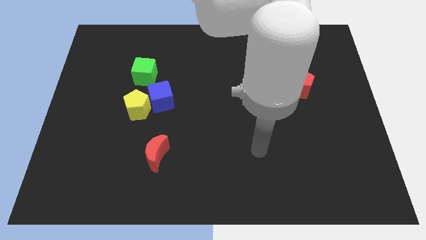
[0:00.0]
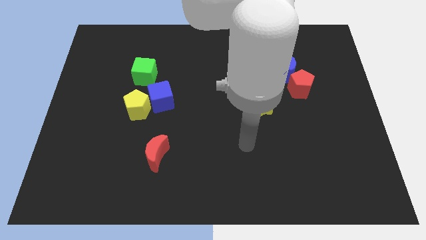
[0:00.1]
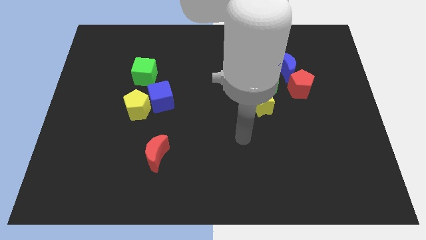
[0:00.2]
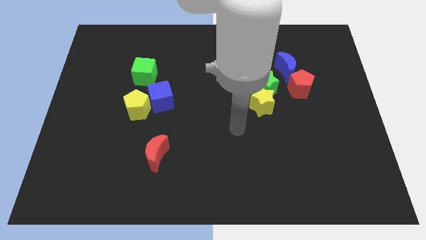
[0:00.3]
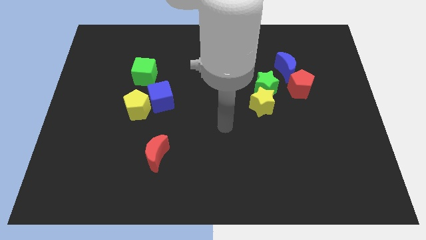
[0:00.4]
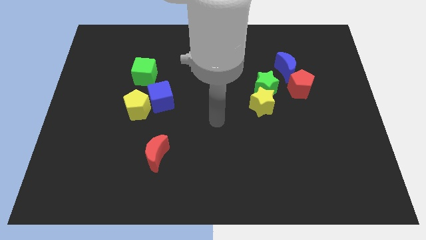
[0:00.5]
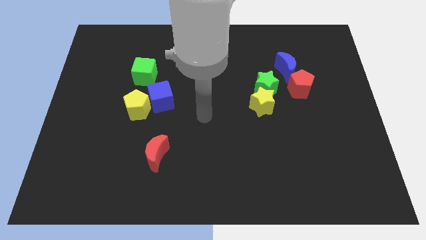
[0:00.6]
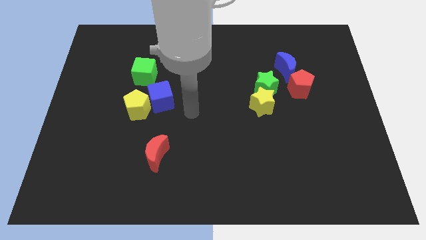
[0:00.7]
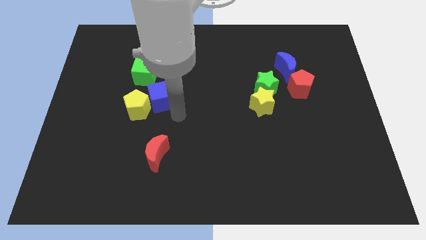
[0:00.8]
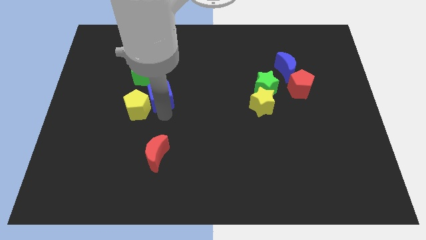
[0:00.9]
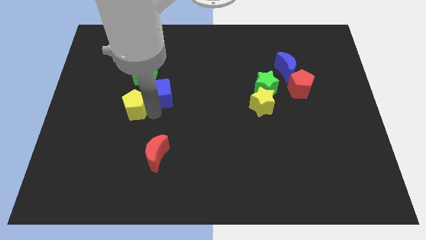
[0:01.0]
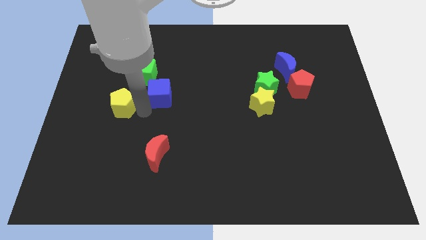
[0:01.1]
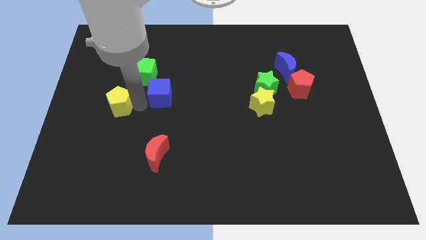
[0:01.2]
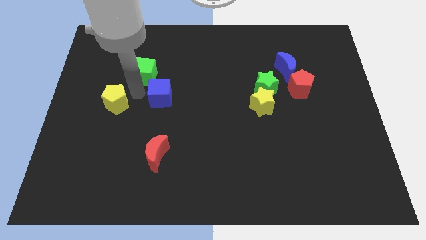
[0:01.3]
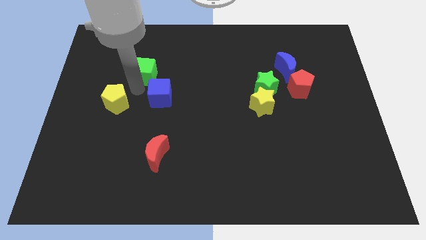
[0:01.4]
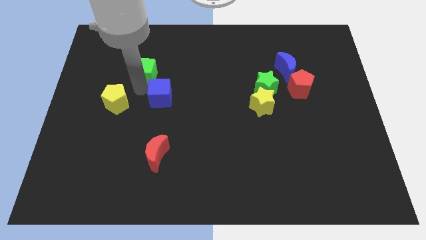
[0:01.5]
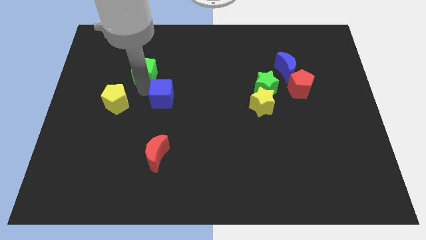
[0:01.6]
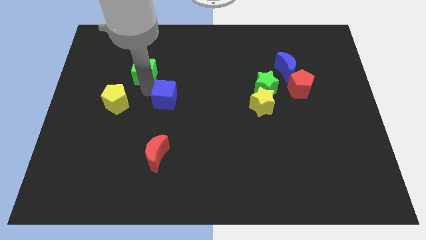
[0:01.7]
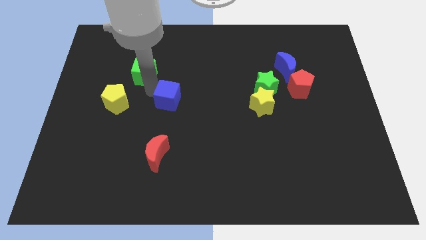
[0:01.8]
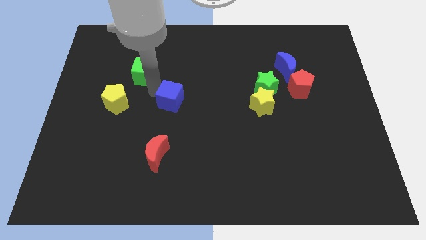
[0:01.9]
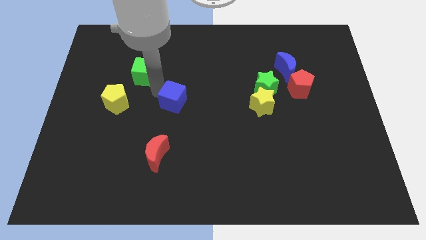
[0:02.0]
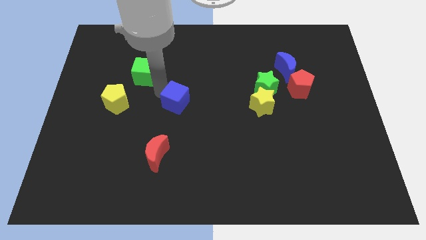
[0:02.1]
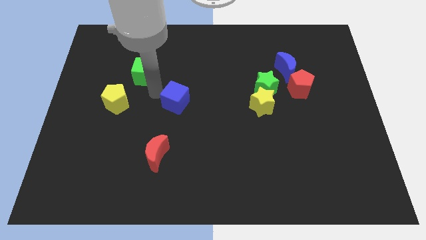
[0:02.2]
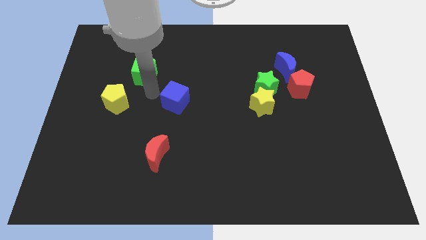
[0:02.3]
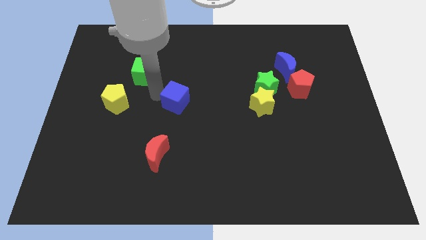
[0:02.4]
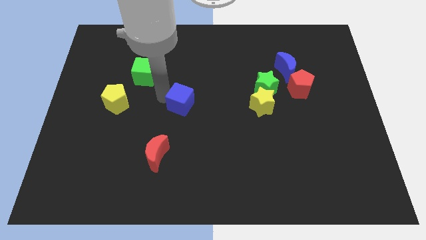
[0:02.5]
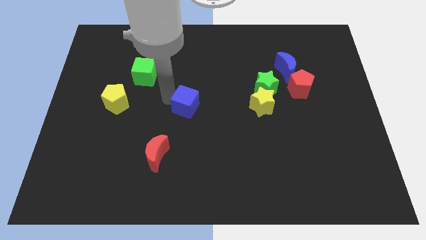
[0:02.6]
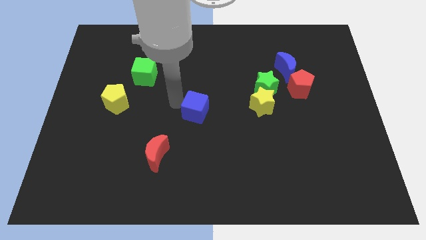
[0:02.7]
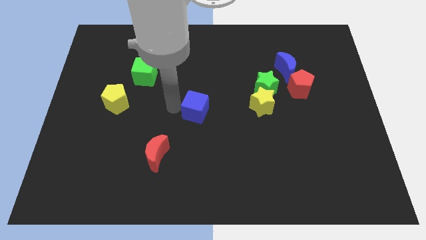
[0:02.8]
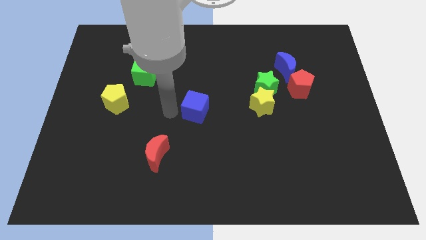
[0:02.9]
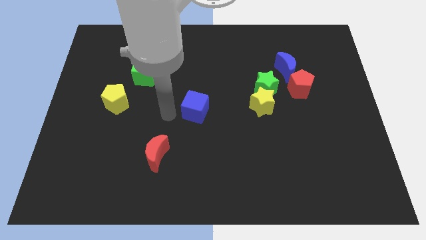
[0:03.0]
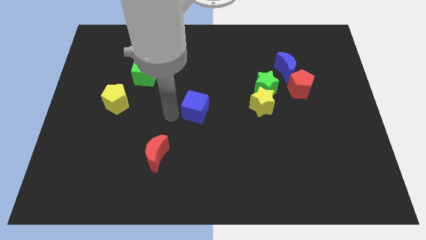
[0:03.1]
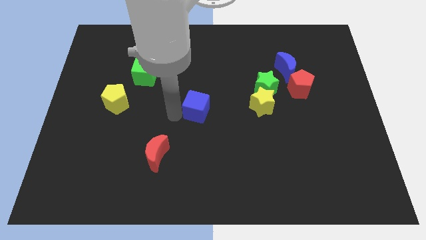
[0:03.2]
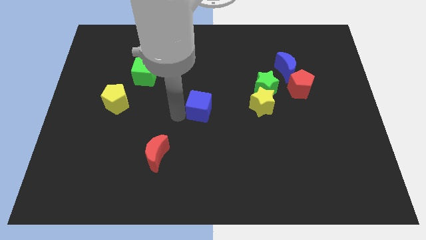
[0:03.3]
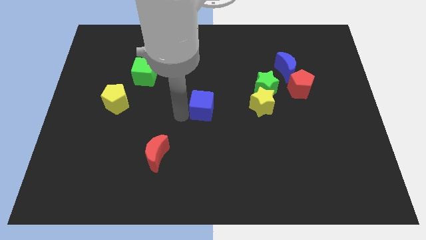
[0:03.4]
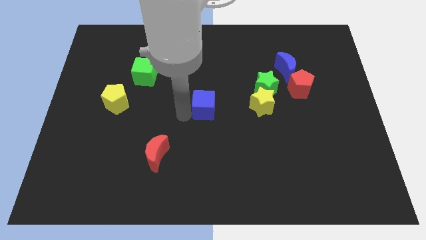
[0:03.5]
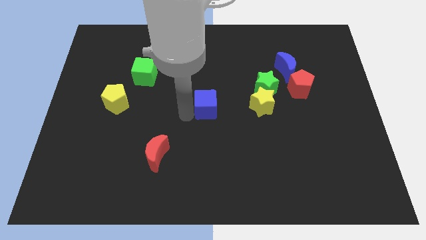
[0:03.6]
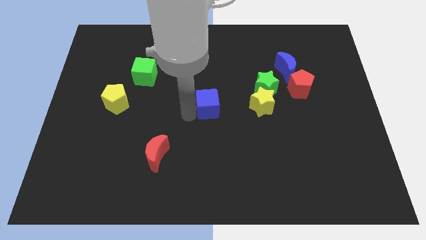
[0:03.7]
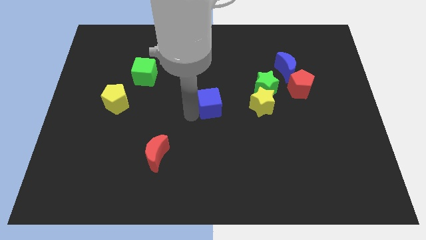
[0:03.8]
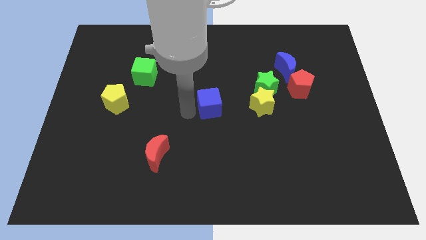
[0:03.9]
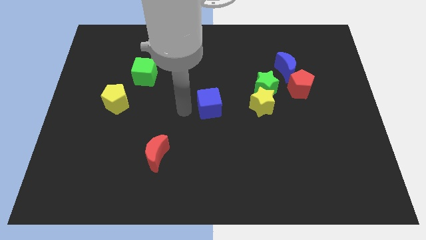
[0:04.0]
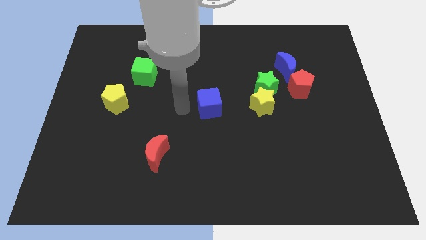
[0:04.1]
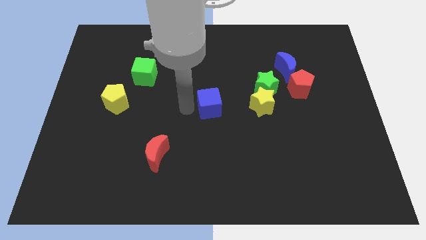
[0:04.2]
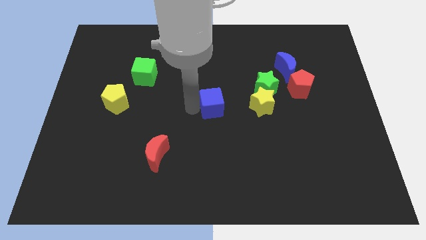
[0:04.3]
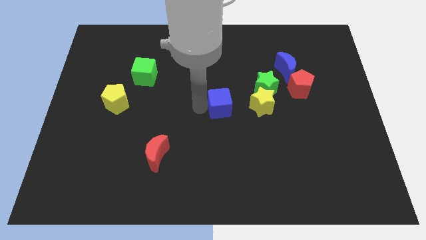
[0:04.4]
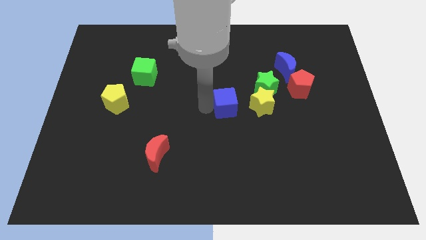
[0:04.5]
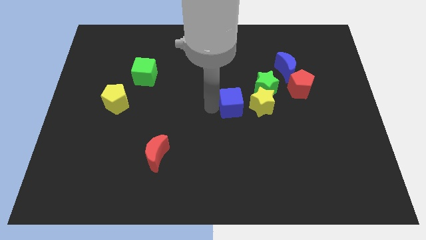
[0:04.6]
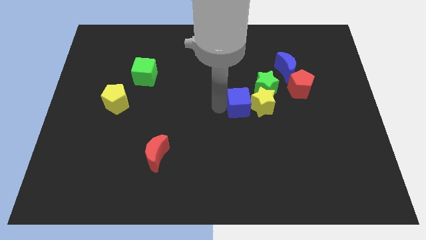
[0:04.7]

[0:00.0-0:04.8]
slide the blue cube next to the yellow star

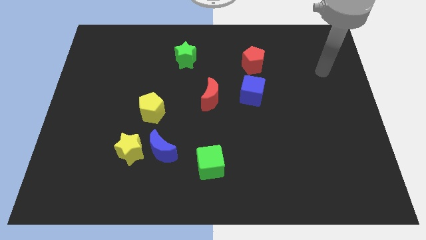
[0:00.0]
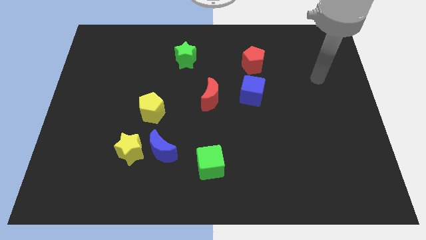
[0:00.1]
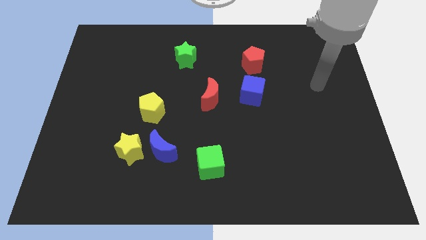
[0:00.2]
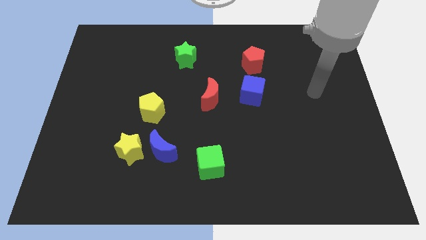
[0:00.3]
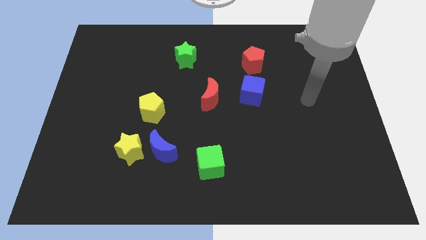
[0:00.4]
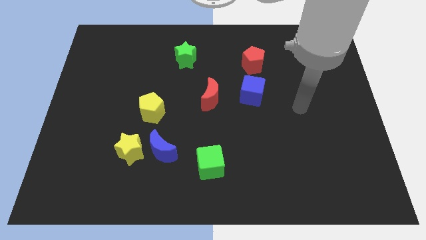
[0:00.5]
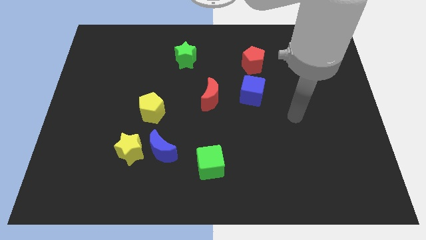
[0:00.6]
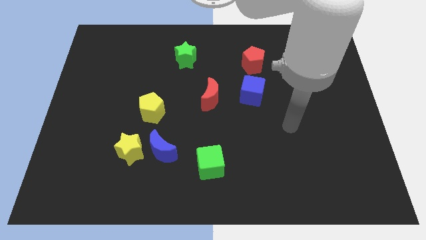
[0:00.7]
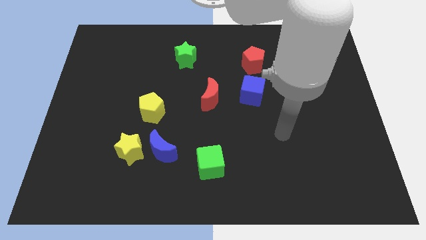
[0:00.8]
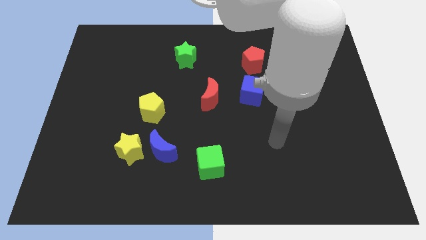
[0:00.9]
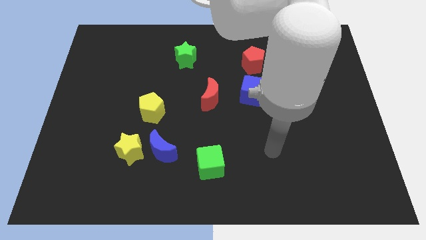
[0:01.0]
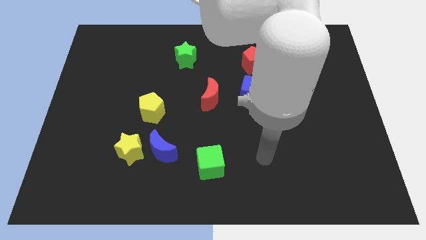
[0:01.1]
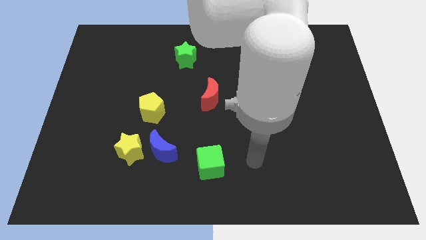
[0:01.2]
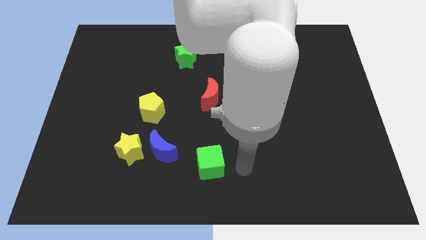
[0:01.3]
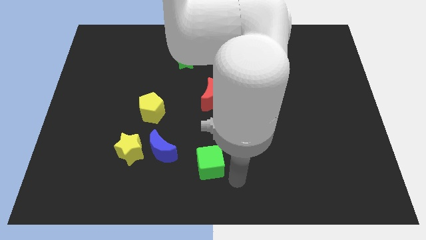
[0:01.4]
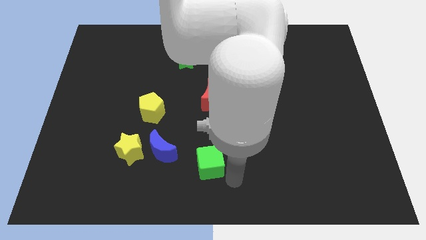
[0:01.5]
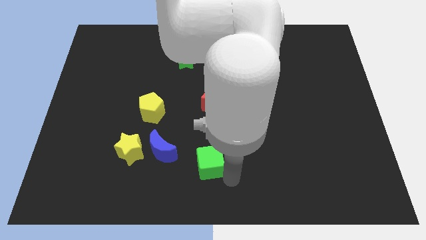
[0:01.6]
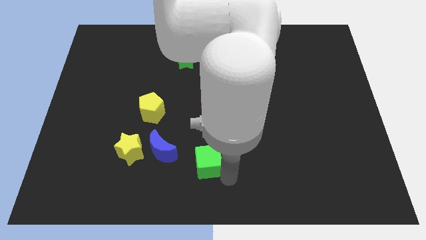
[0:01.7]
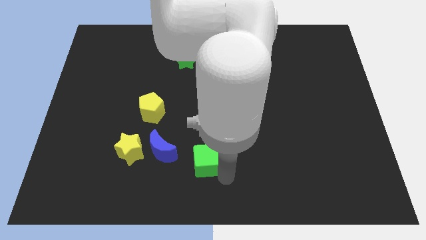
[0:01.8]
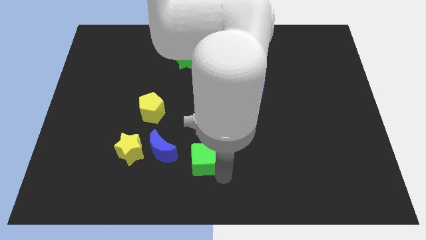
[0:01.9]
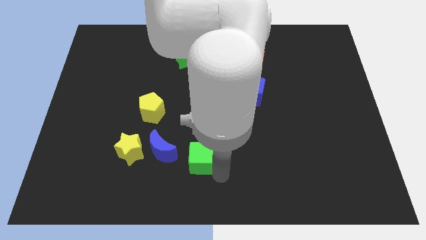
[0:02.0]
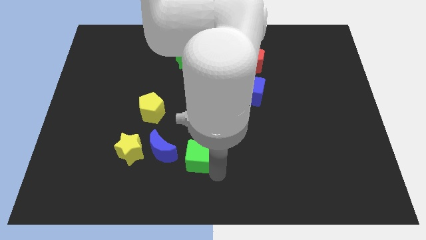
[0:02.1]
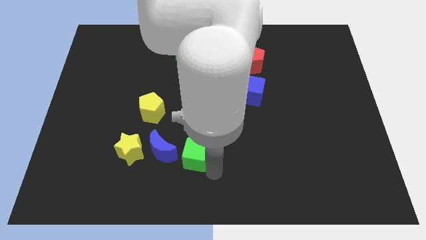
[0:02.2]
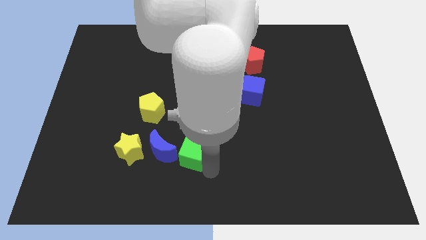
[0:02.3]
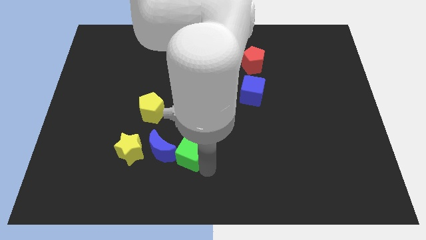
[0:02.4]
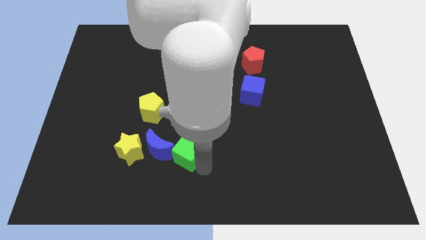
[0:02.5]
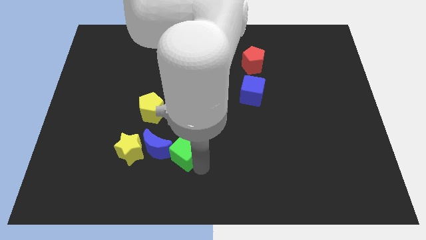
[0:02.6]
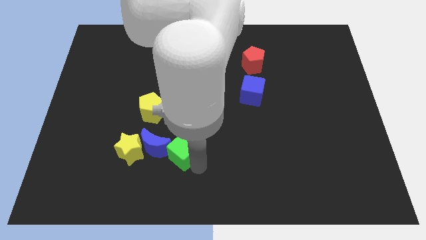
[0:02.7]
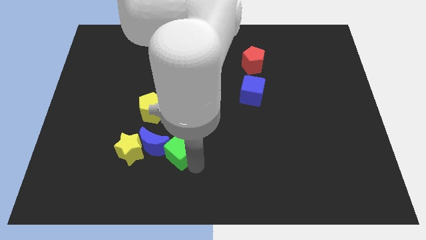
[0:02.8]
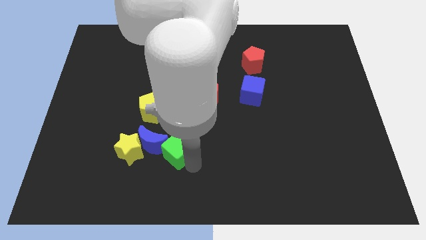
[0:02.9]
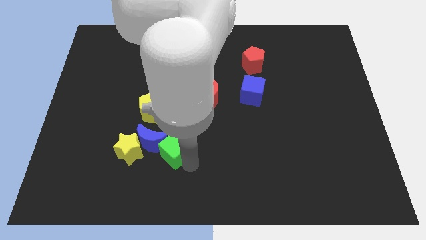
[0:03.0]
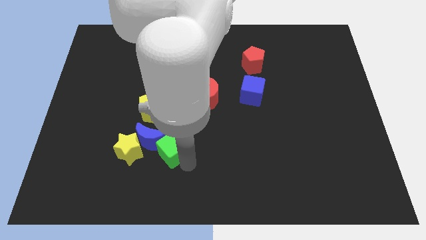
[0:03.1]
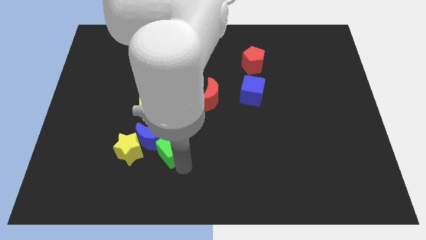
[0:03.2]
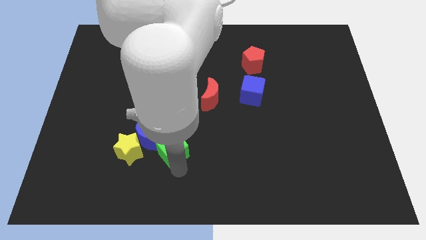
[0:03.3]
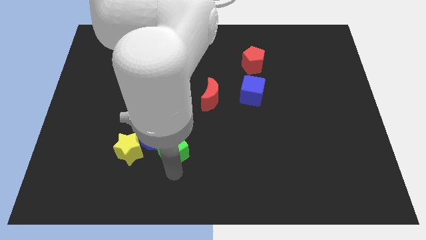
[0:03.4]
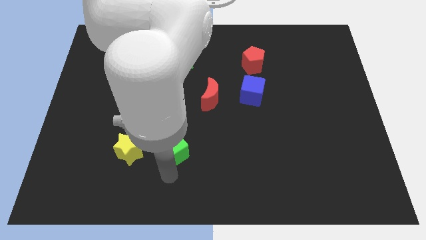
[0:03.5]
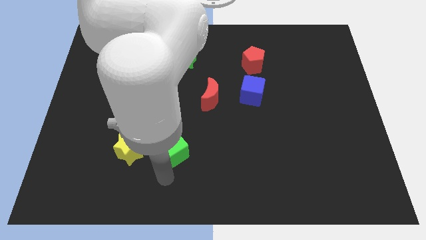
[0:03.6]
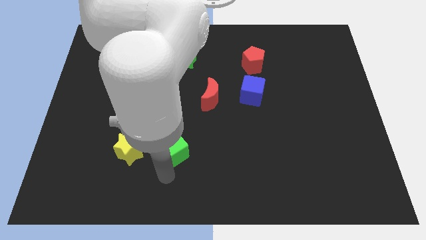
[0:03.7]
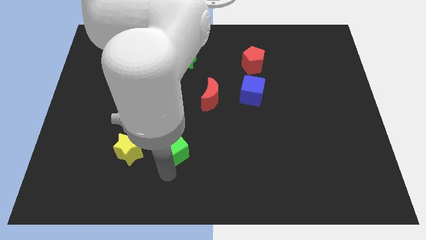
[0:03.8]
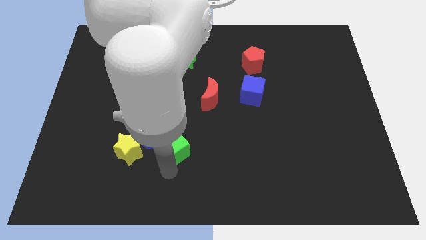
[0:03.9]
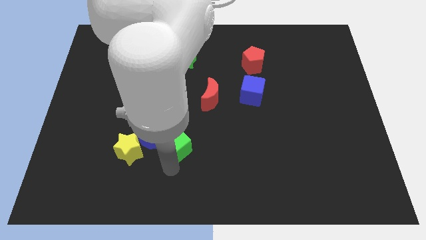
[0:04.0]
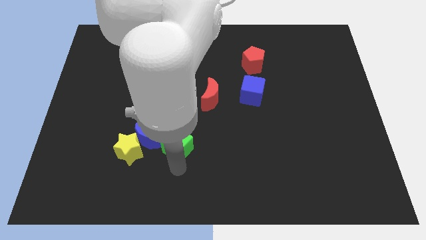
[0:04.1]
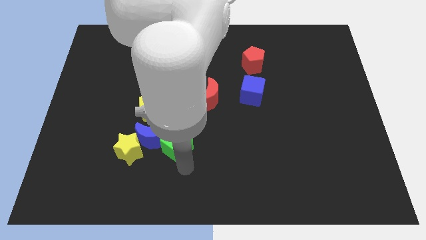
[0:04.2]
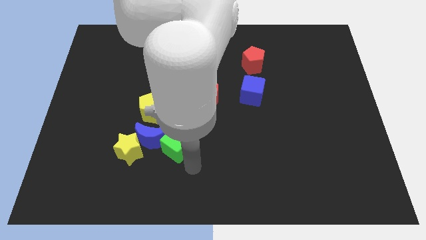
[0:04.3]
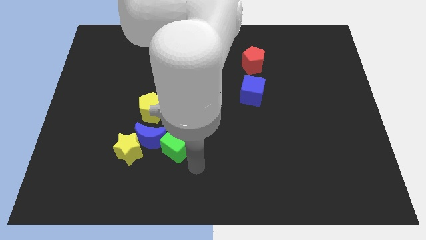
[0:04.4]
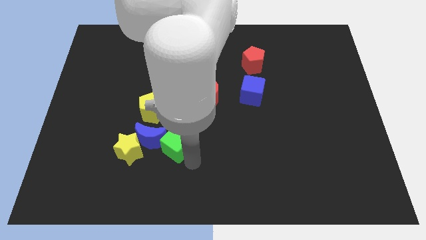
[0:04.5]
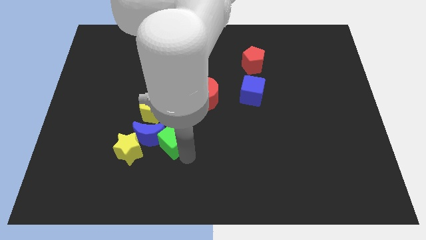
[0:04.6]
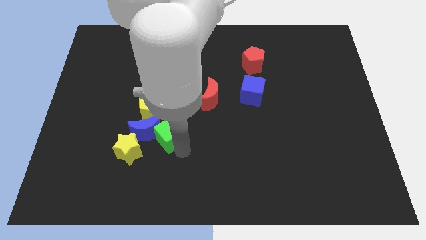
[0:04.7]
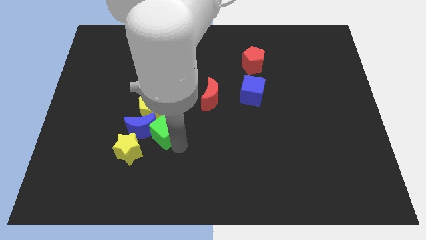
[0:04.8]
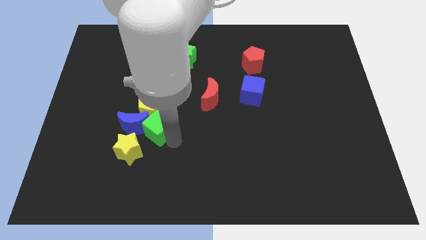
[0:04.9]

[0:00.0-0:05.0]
slide the green cube next to the yellow pentagon
